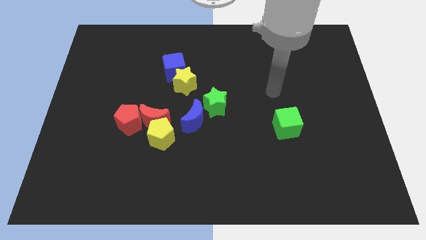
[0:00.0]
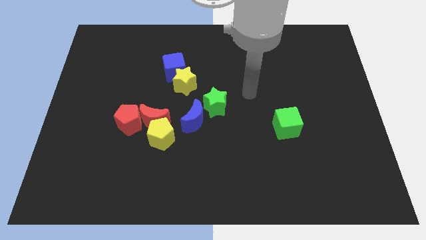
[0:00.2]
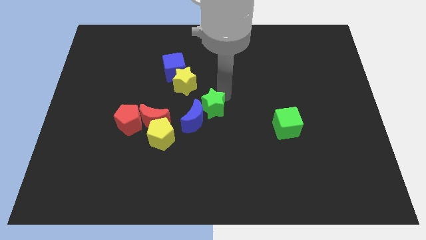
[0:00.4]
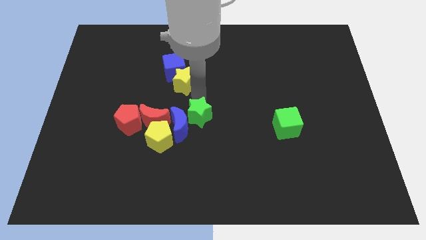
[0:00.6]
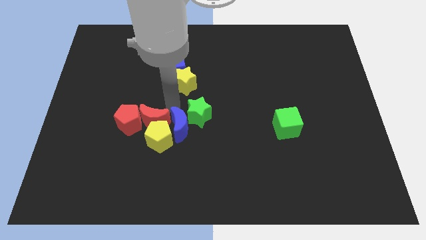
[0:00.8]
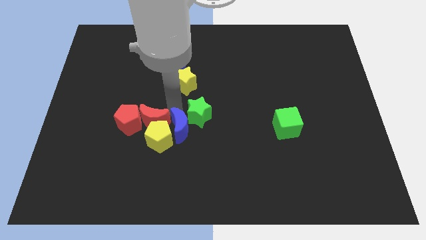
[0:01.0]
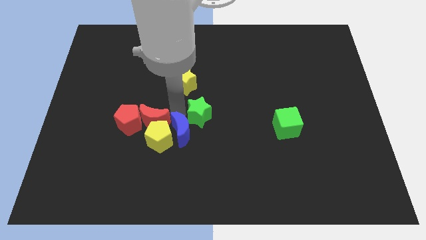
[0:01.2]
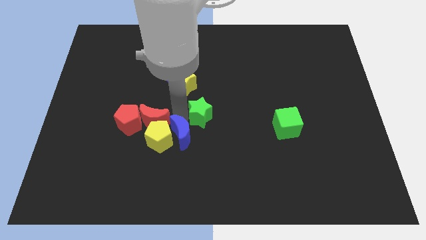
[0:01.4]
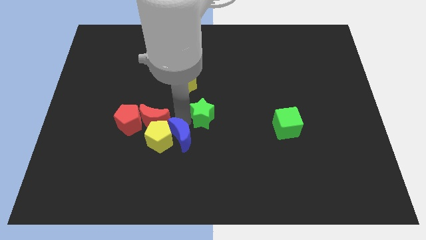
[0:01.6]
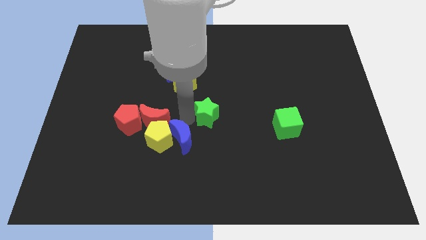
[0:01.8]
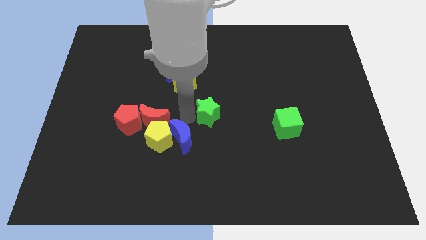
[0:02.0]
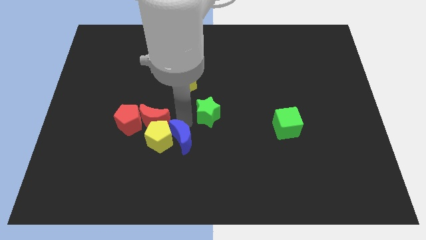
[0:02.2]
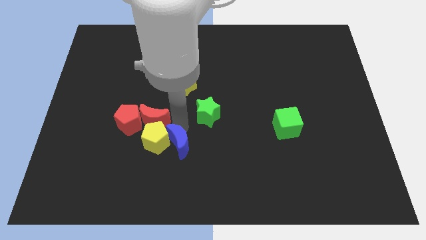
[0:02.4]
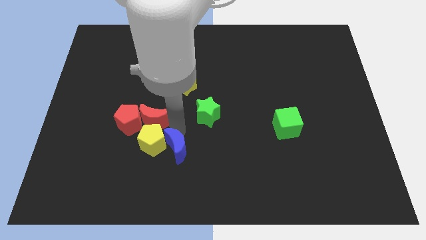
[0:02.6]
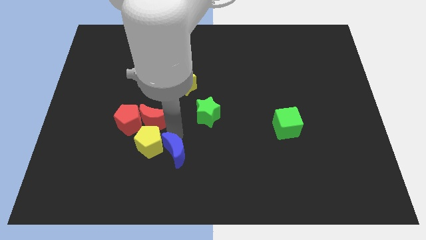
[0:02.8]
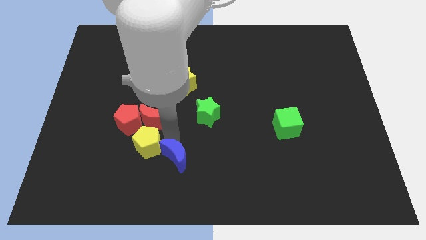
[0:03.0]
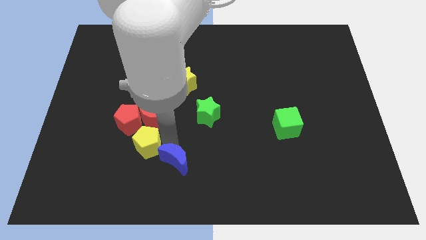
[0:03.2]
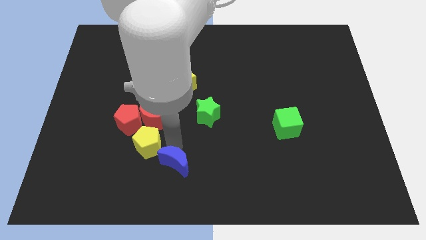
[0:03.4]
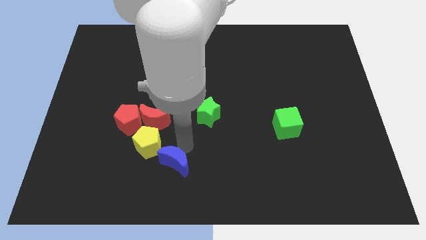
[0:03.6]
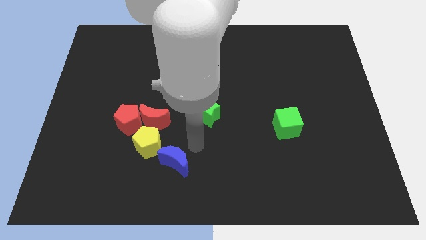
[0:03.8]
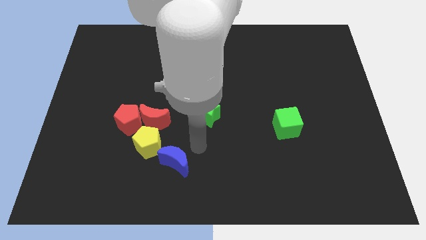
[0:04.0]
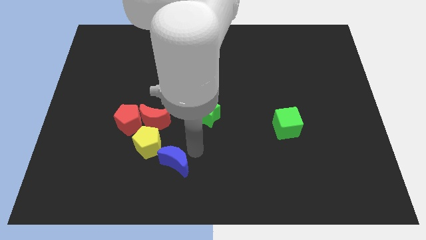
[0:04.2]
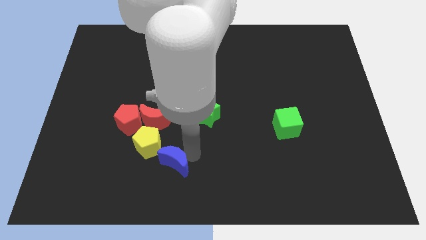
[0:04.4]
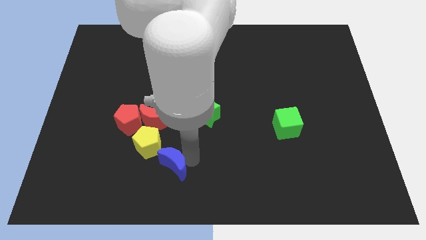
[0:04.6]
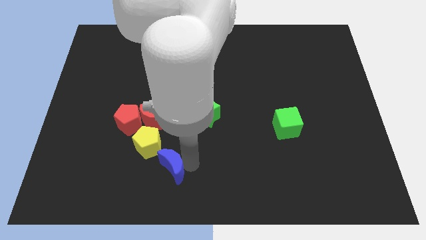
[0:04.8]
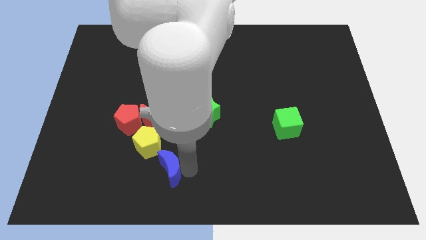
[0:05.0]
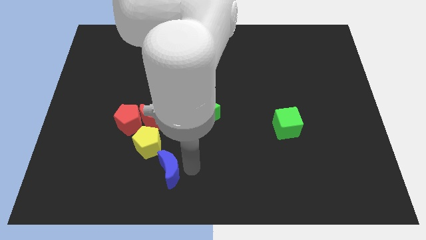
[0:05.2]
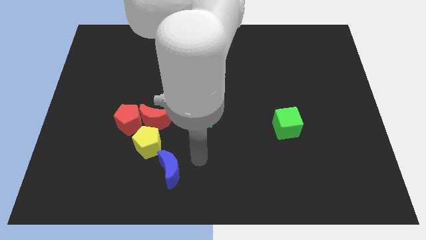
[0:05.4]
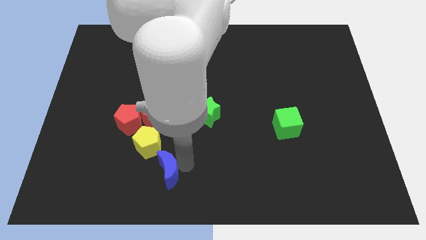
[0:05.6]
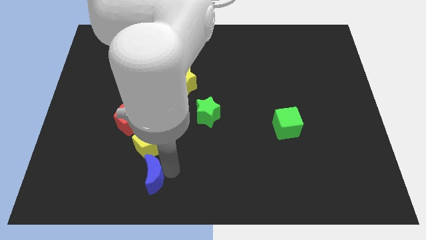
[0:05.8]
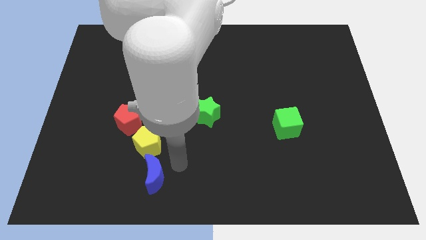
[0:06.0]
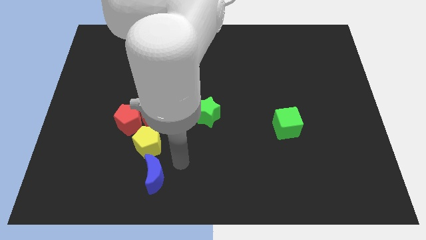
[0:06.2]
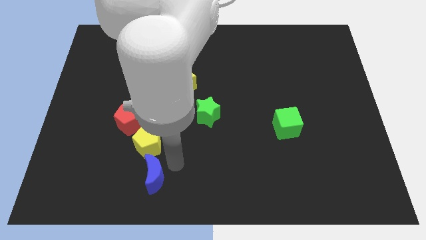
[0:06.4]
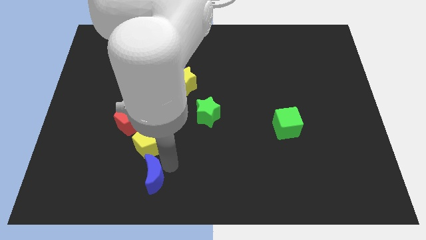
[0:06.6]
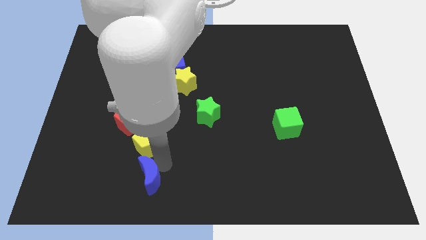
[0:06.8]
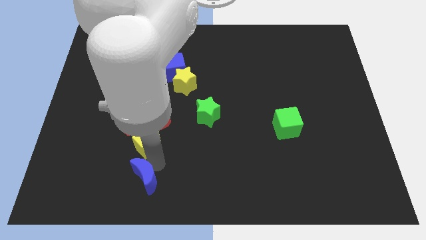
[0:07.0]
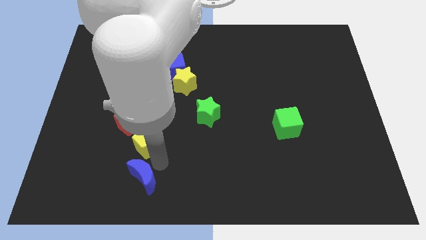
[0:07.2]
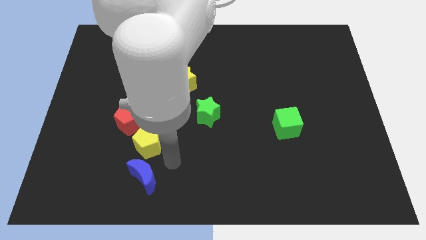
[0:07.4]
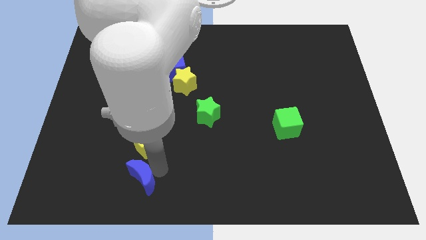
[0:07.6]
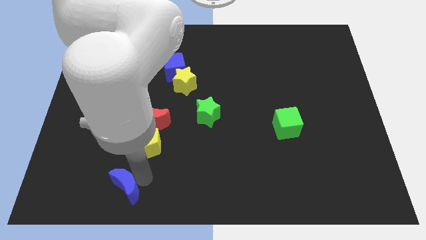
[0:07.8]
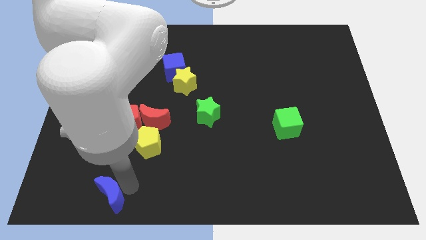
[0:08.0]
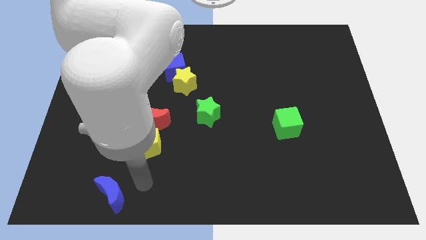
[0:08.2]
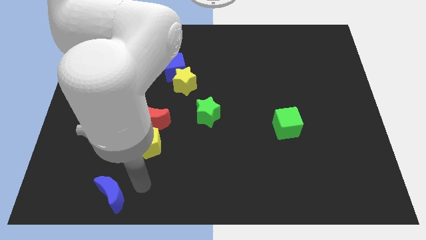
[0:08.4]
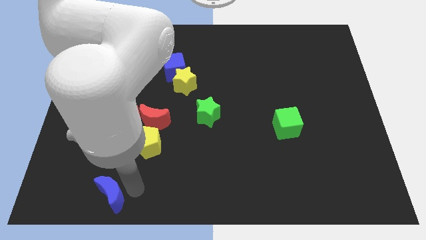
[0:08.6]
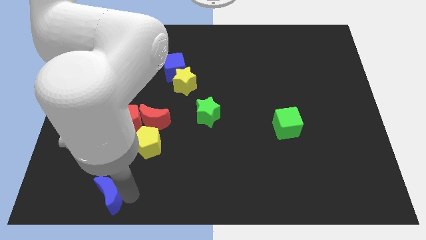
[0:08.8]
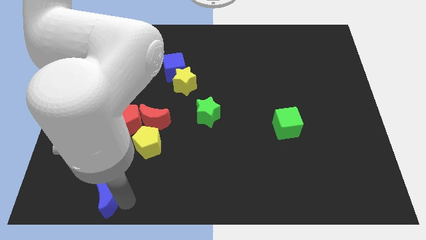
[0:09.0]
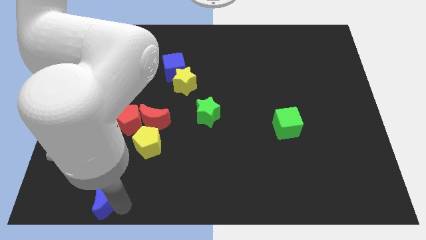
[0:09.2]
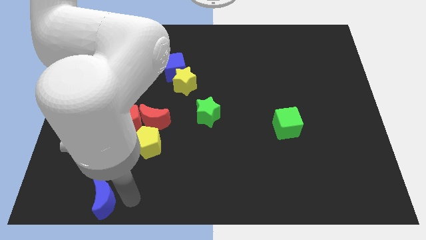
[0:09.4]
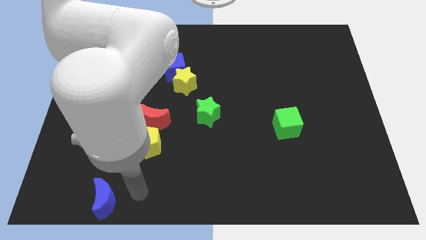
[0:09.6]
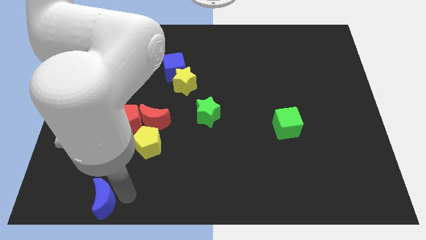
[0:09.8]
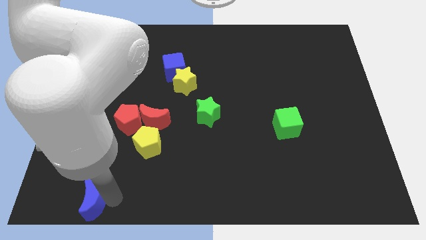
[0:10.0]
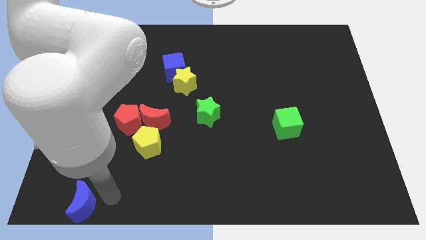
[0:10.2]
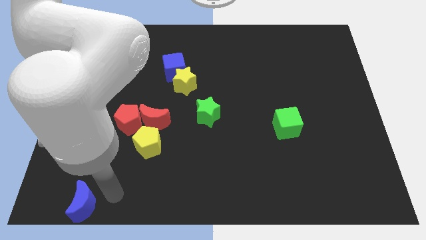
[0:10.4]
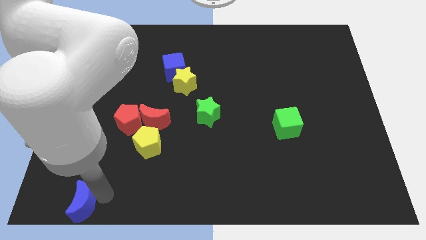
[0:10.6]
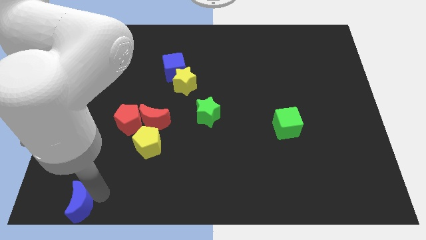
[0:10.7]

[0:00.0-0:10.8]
put the blue moon to the bottom left corner

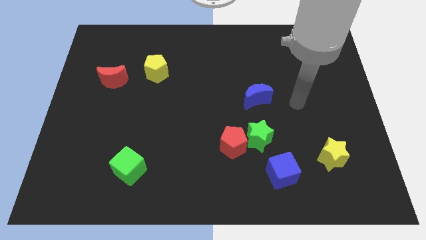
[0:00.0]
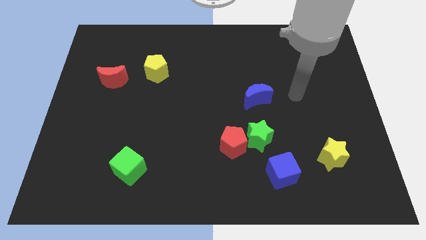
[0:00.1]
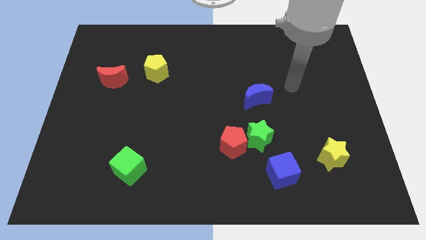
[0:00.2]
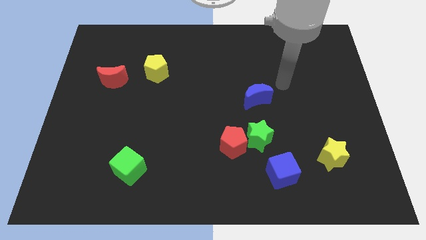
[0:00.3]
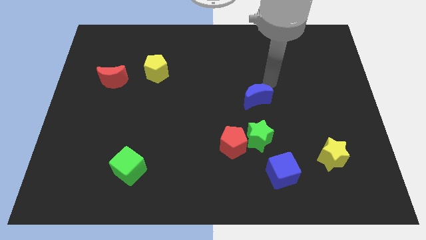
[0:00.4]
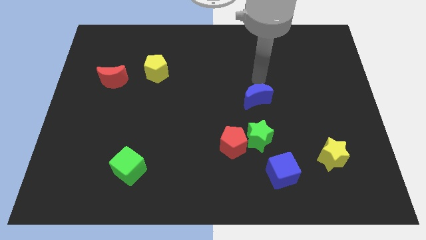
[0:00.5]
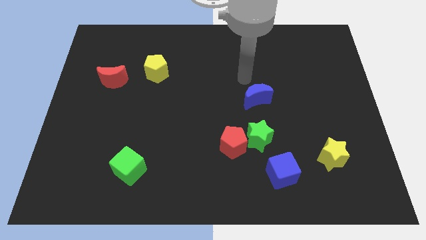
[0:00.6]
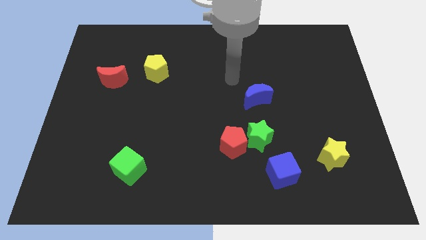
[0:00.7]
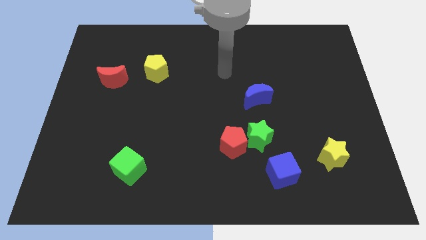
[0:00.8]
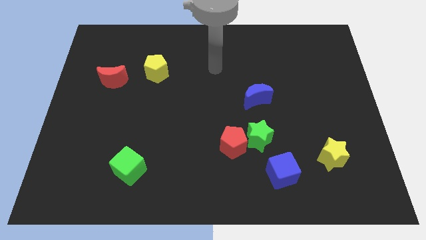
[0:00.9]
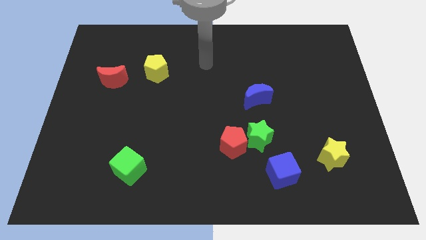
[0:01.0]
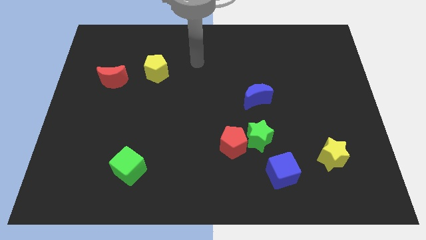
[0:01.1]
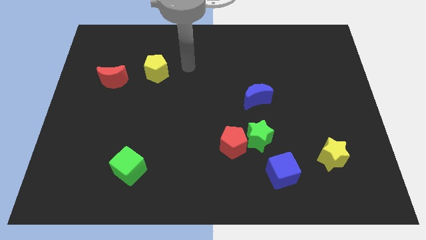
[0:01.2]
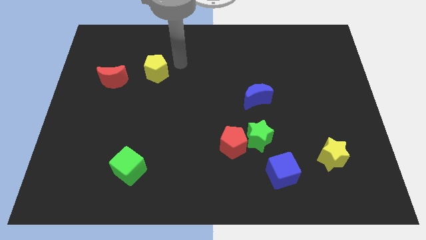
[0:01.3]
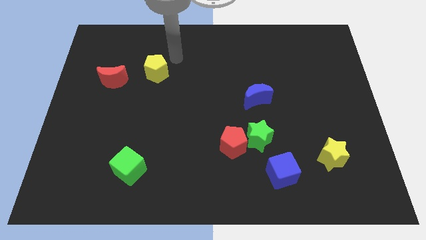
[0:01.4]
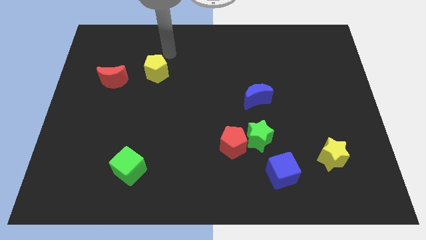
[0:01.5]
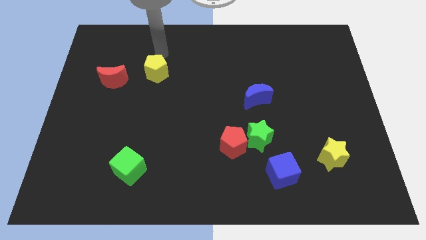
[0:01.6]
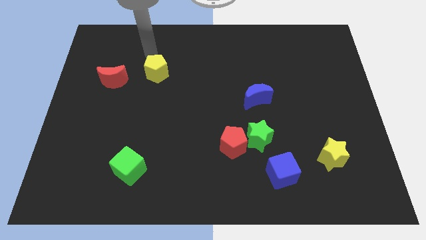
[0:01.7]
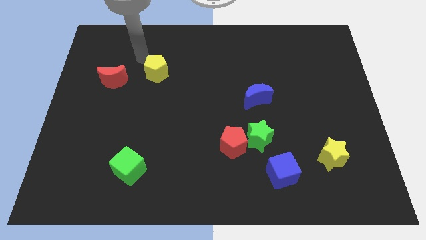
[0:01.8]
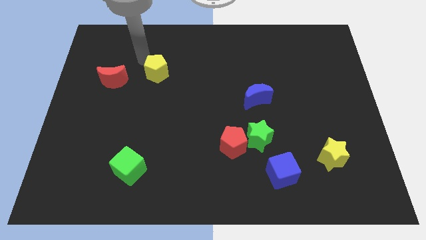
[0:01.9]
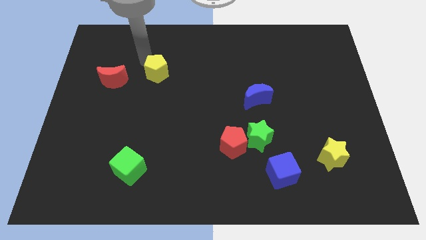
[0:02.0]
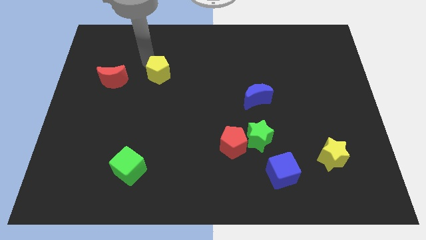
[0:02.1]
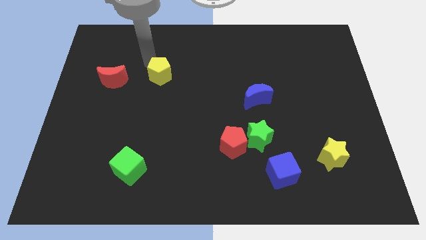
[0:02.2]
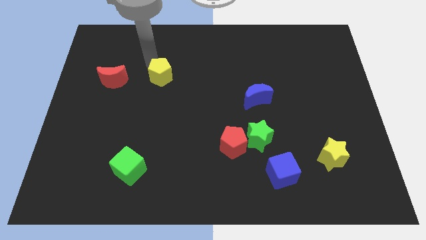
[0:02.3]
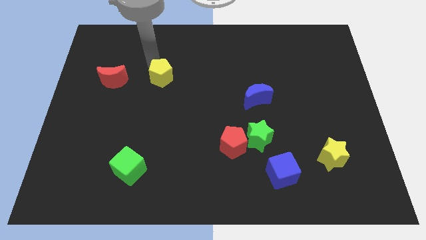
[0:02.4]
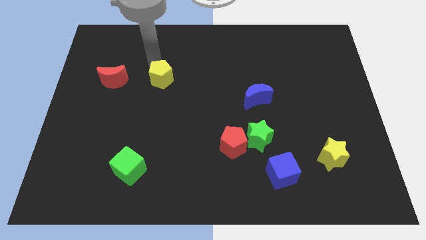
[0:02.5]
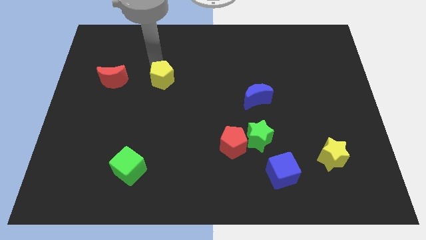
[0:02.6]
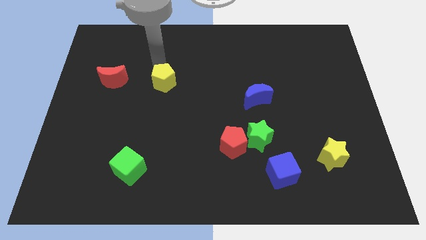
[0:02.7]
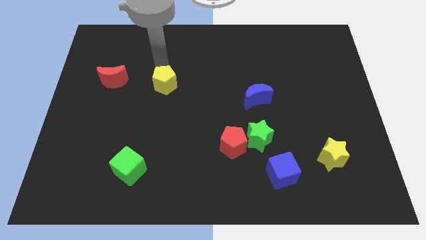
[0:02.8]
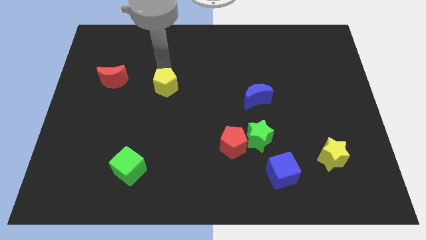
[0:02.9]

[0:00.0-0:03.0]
put the yellow pentagon to the center of the board
